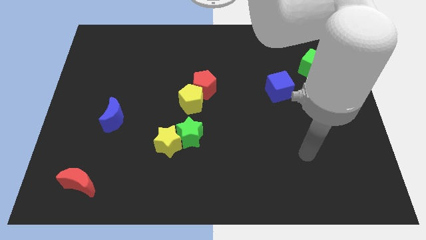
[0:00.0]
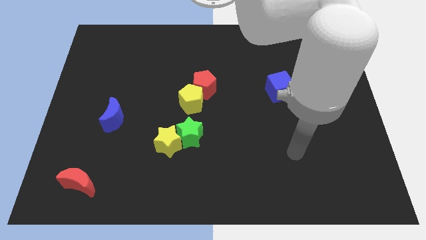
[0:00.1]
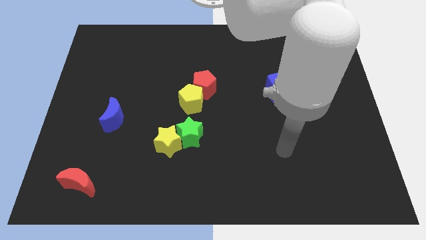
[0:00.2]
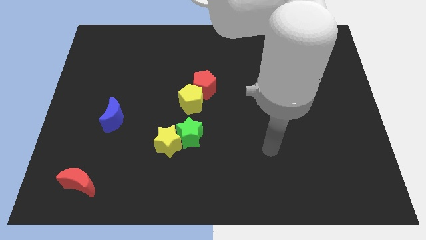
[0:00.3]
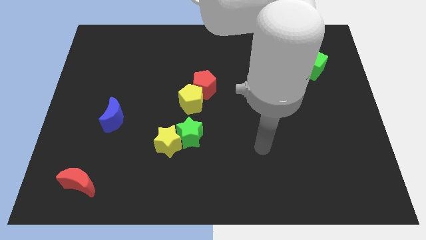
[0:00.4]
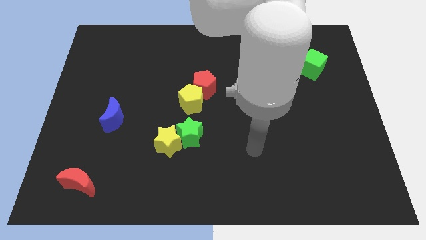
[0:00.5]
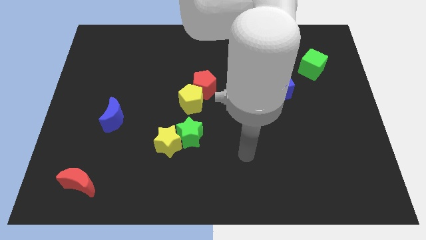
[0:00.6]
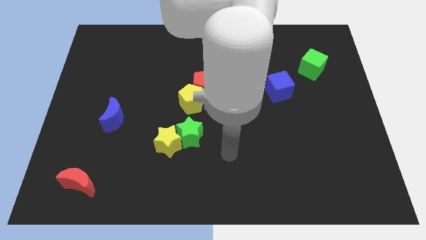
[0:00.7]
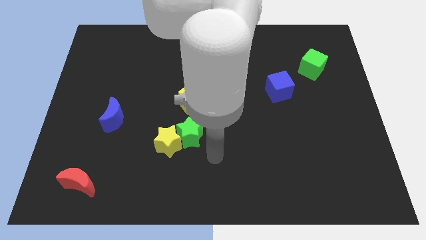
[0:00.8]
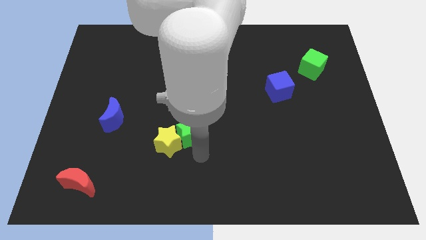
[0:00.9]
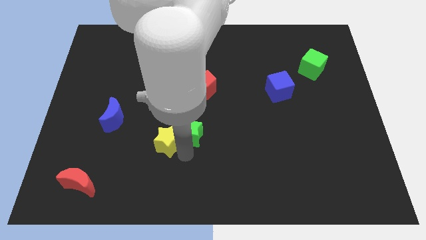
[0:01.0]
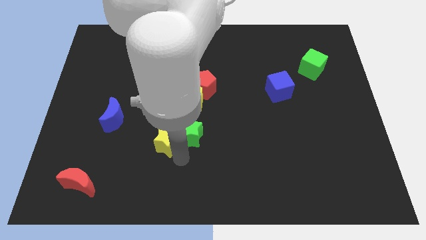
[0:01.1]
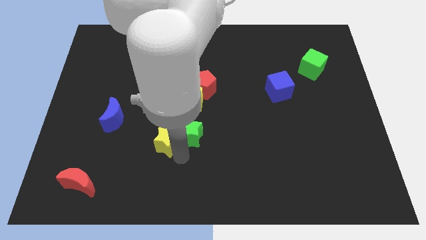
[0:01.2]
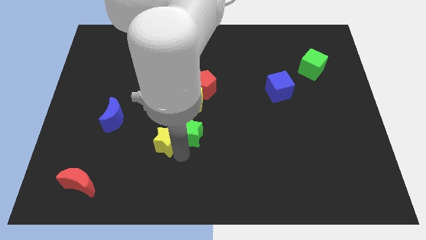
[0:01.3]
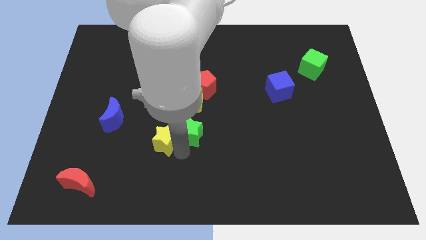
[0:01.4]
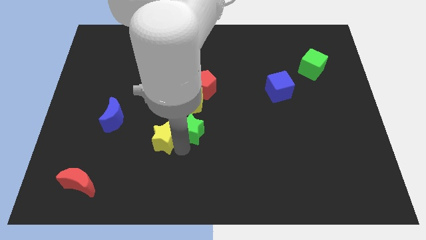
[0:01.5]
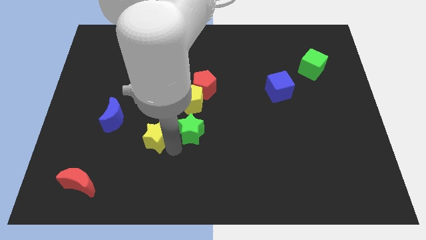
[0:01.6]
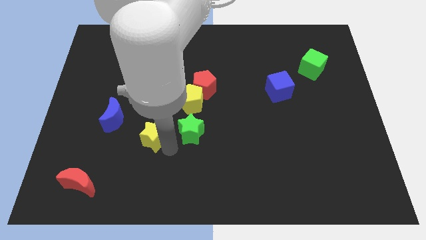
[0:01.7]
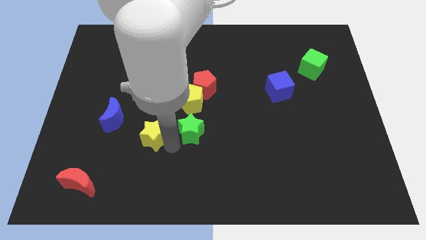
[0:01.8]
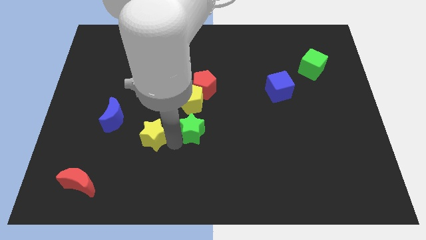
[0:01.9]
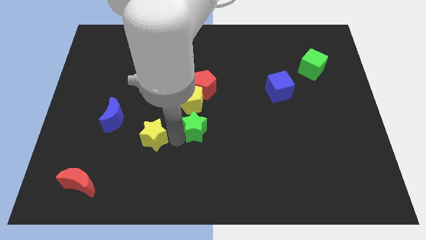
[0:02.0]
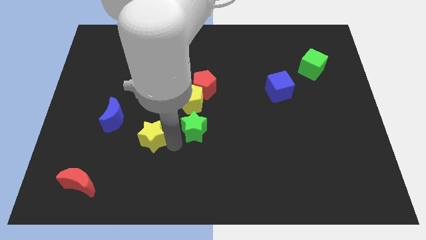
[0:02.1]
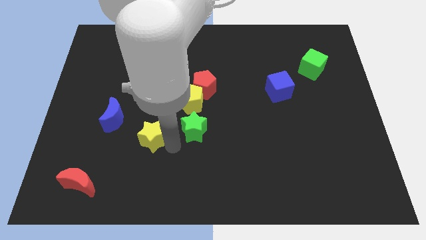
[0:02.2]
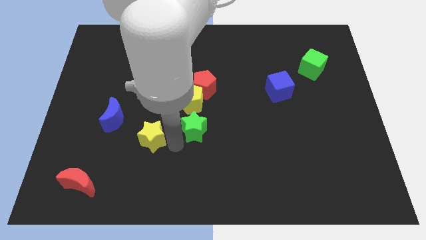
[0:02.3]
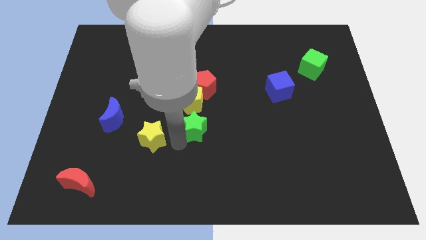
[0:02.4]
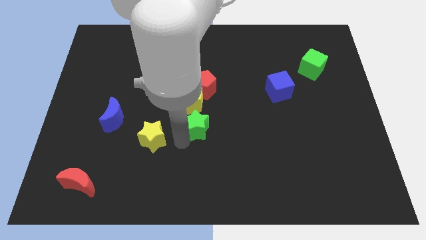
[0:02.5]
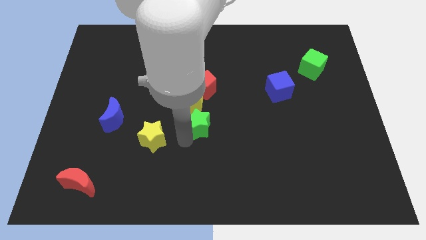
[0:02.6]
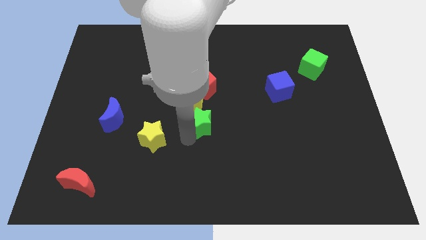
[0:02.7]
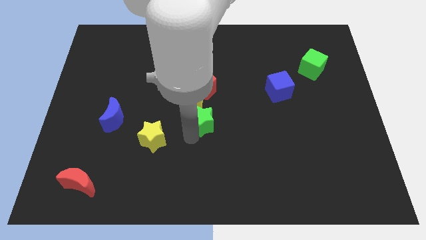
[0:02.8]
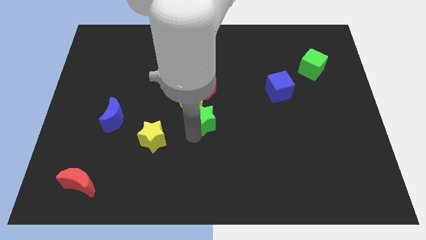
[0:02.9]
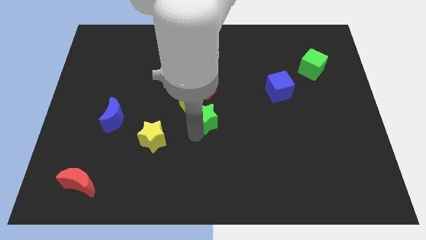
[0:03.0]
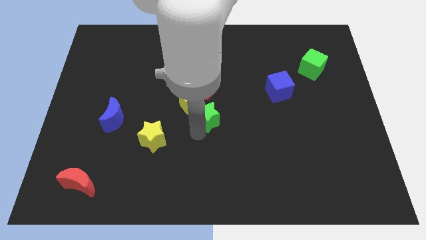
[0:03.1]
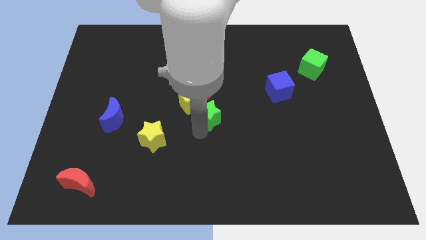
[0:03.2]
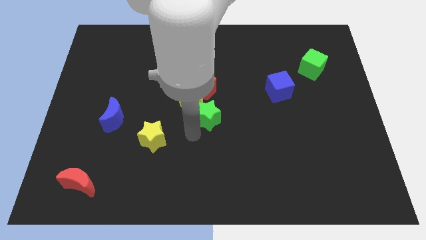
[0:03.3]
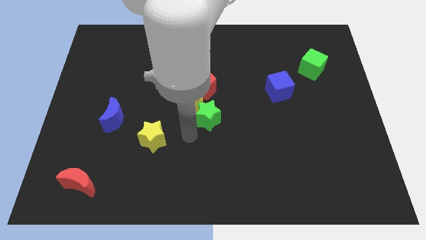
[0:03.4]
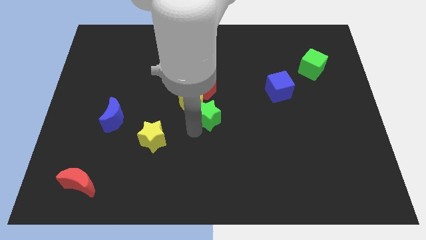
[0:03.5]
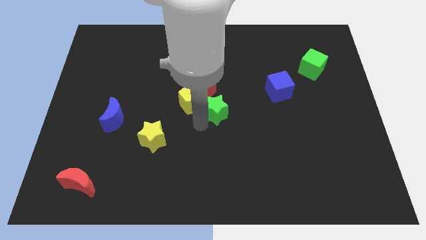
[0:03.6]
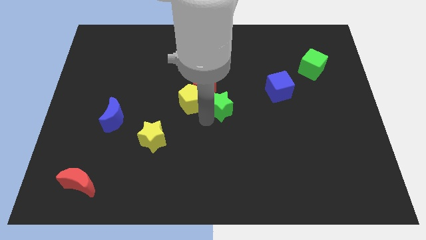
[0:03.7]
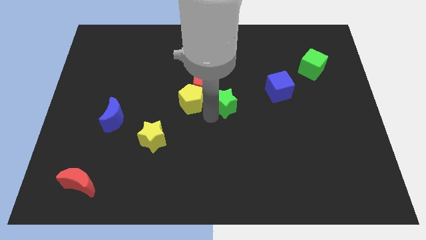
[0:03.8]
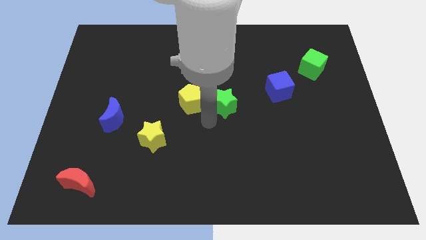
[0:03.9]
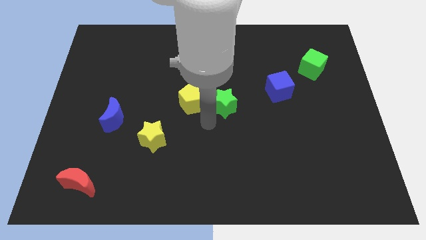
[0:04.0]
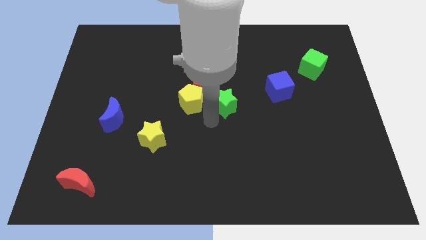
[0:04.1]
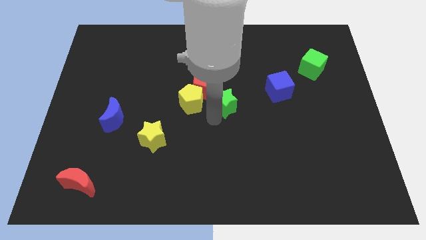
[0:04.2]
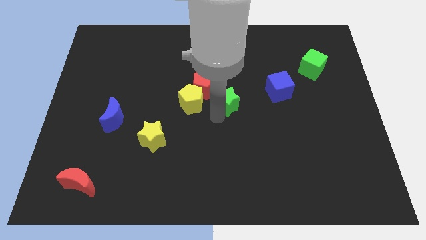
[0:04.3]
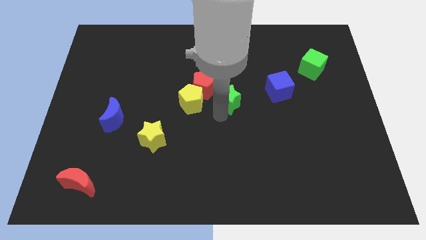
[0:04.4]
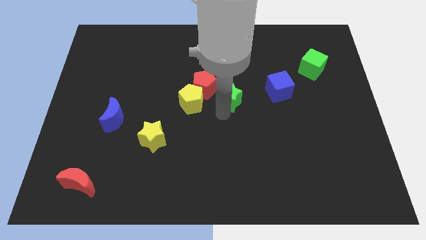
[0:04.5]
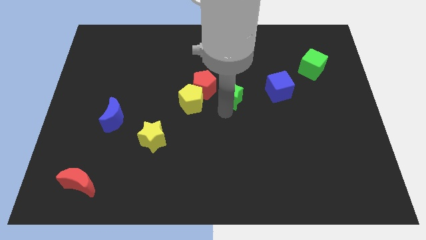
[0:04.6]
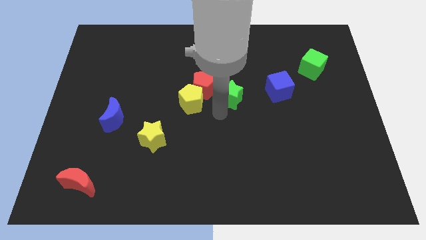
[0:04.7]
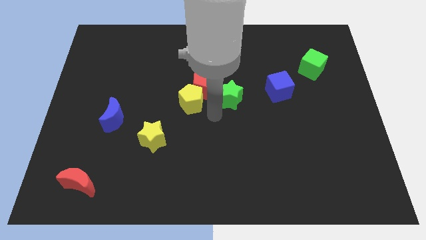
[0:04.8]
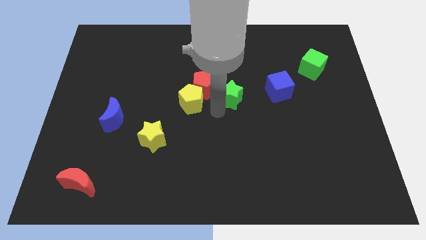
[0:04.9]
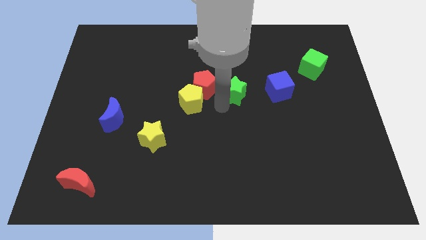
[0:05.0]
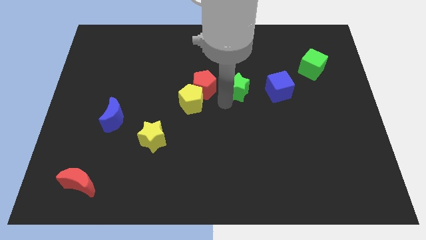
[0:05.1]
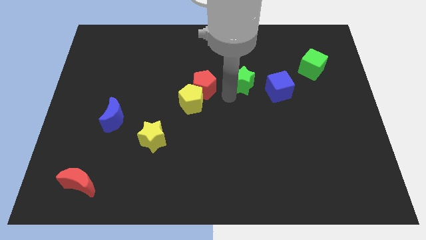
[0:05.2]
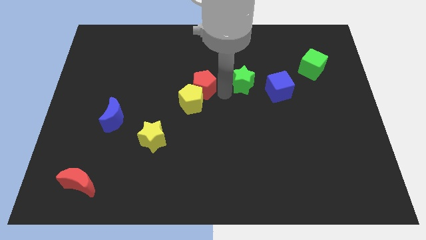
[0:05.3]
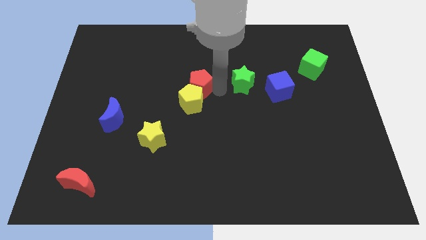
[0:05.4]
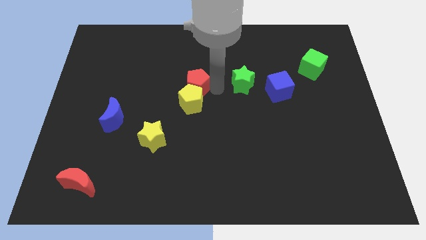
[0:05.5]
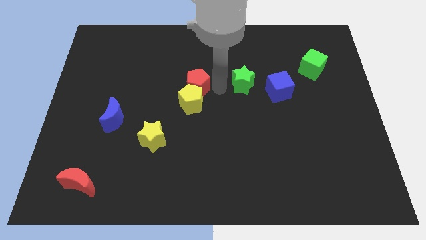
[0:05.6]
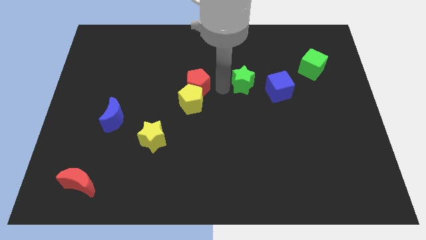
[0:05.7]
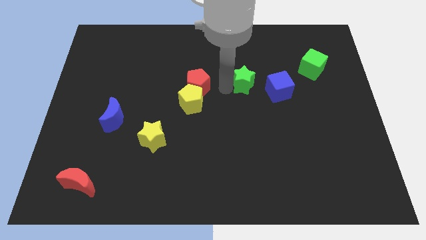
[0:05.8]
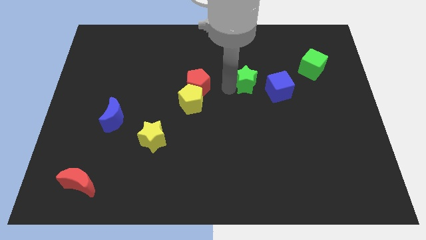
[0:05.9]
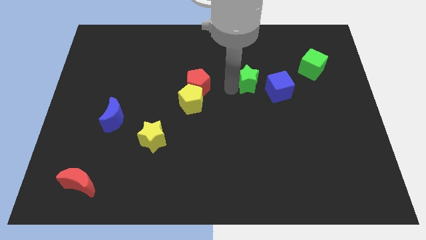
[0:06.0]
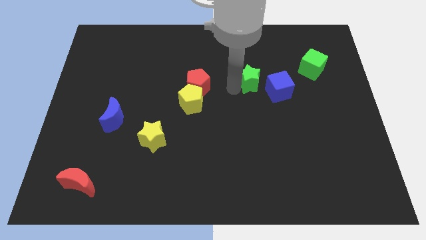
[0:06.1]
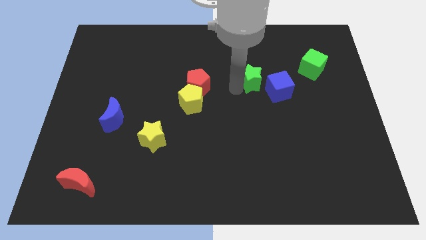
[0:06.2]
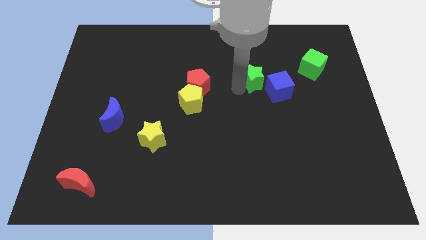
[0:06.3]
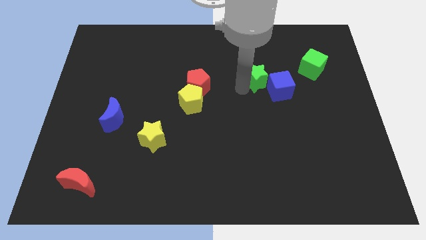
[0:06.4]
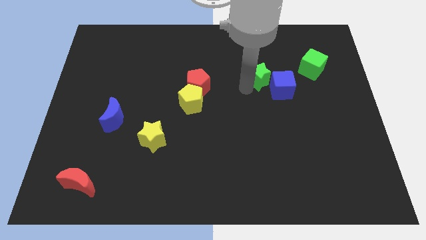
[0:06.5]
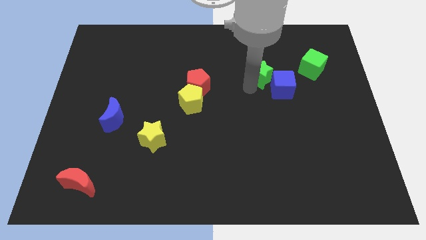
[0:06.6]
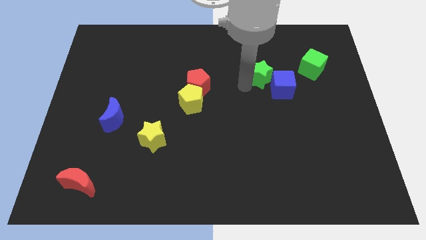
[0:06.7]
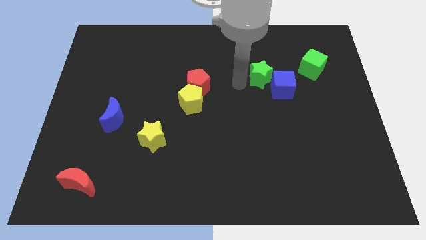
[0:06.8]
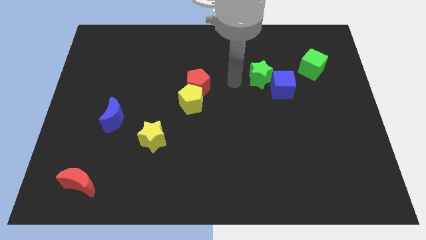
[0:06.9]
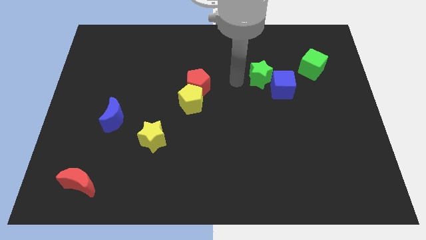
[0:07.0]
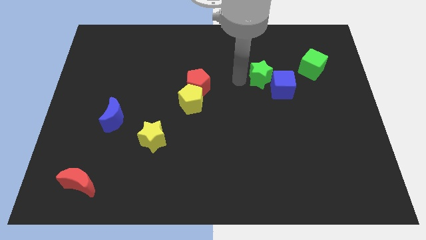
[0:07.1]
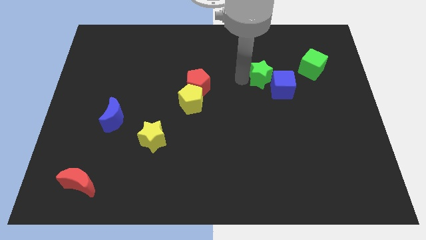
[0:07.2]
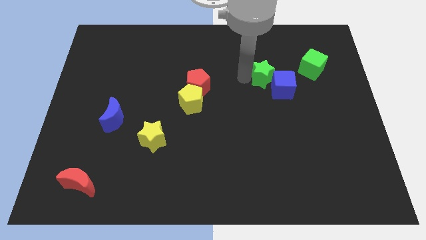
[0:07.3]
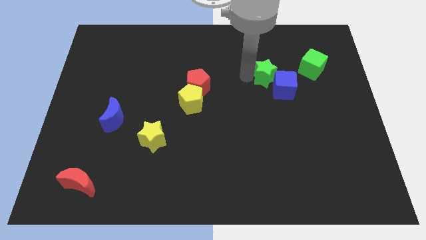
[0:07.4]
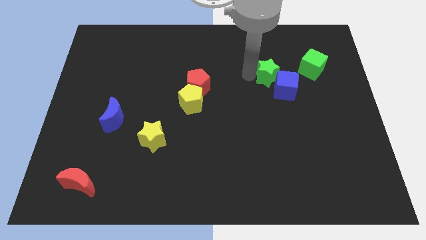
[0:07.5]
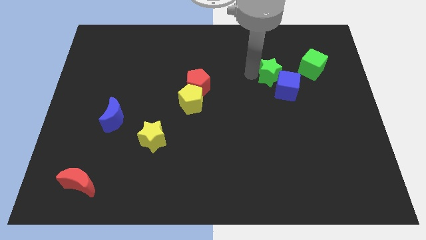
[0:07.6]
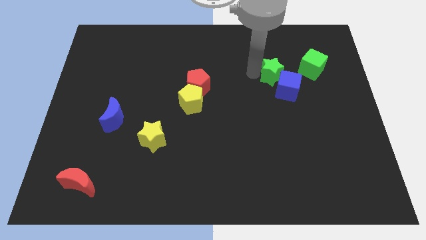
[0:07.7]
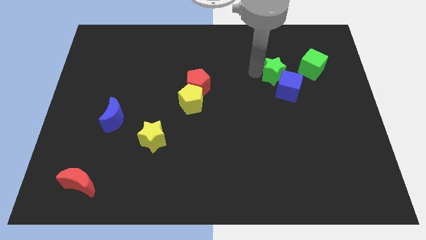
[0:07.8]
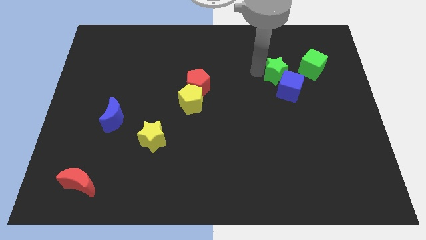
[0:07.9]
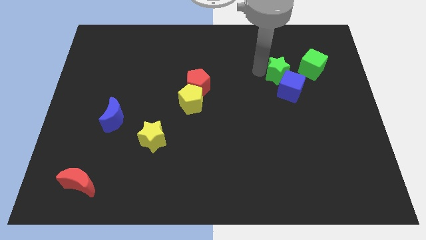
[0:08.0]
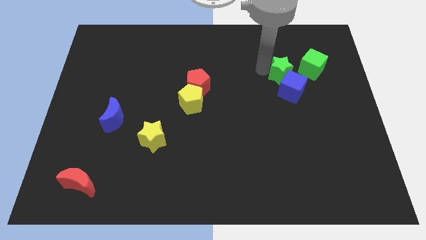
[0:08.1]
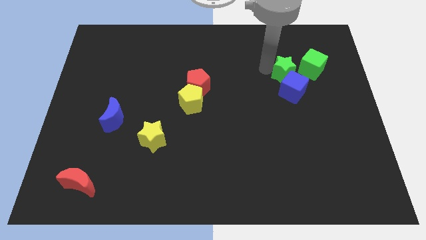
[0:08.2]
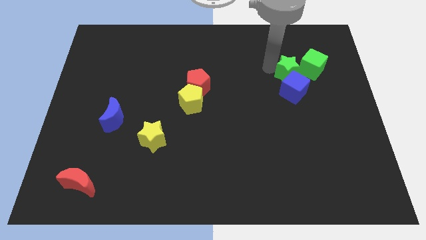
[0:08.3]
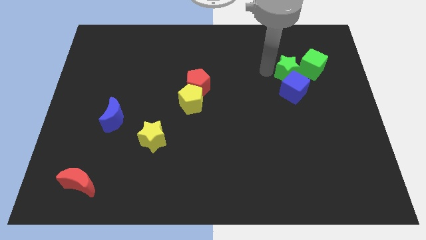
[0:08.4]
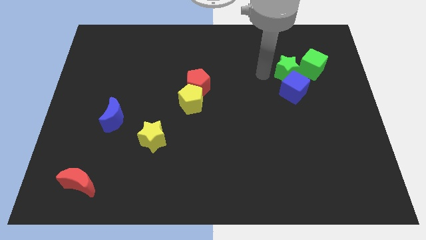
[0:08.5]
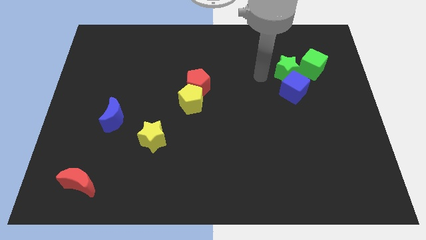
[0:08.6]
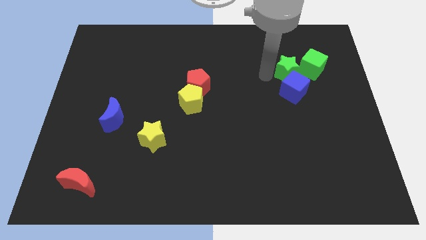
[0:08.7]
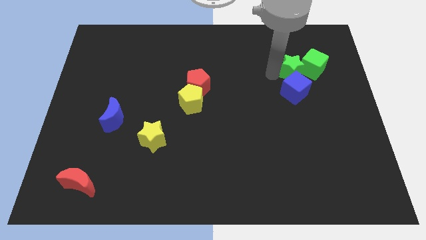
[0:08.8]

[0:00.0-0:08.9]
slide the green star to the green cube
